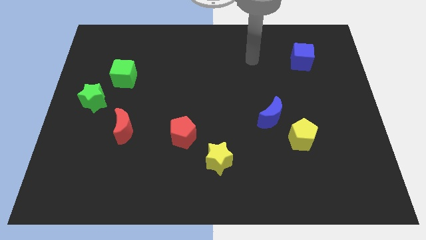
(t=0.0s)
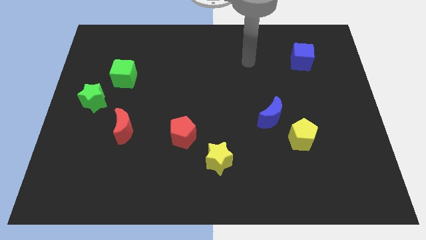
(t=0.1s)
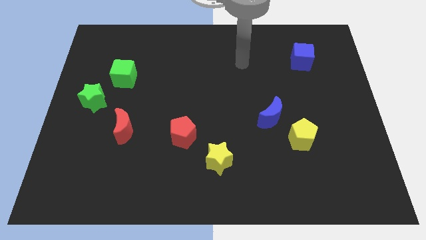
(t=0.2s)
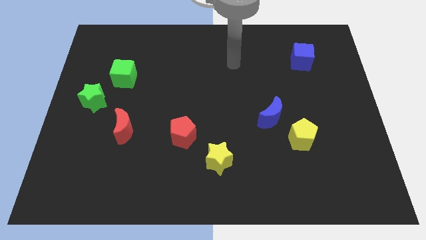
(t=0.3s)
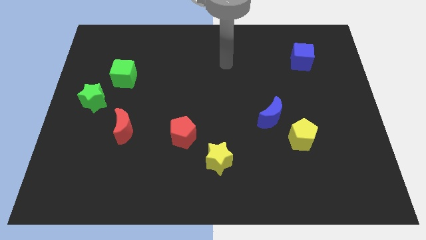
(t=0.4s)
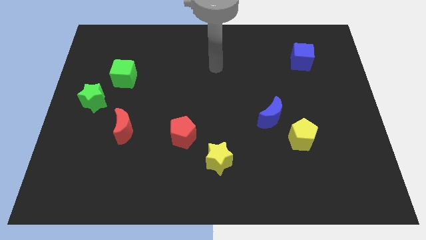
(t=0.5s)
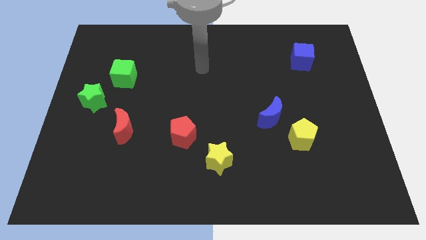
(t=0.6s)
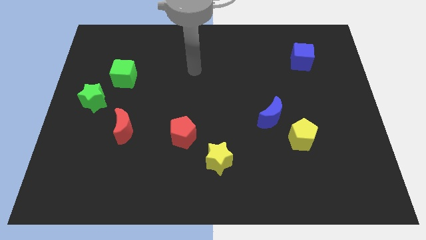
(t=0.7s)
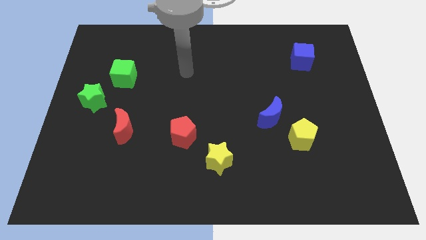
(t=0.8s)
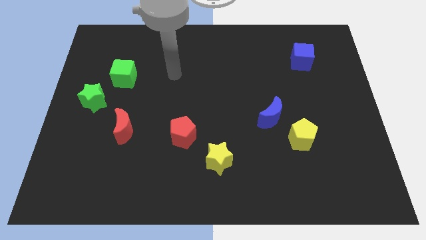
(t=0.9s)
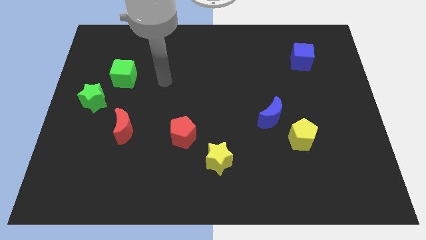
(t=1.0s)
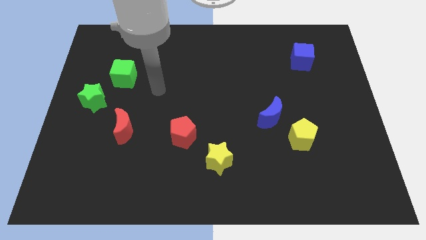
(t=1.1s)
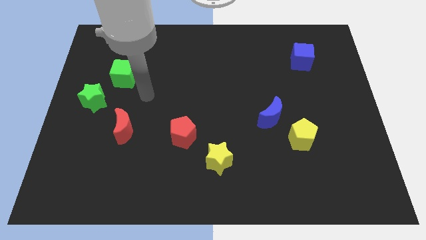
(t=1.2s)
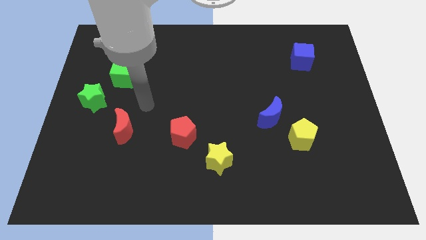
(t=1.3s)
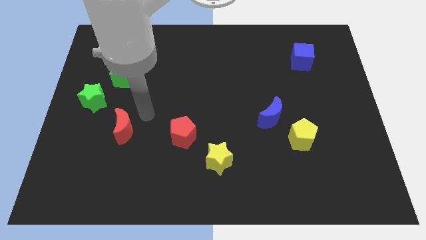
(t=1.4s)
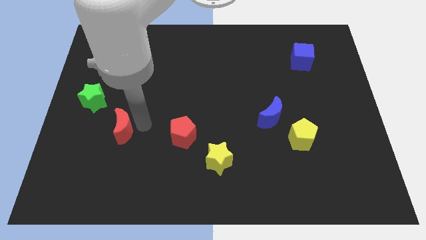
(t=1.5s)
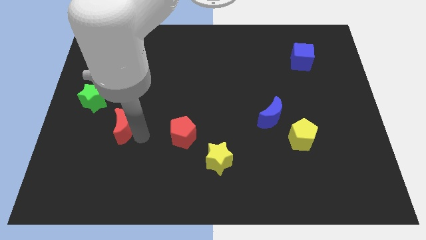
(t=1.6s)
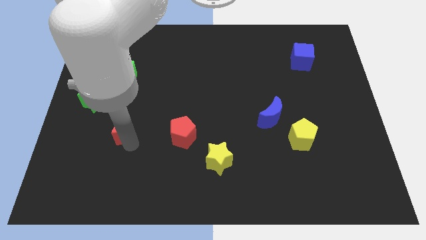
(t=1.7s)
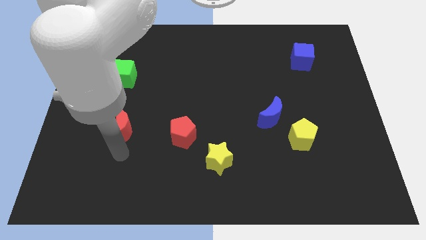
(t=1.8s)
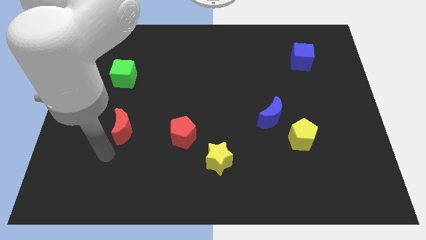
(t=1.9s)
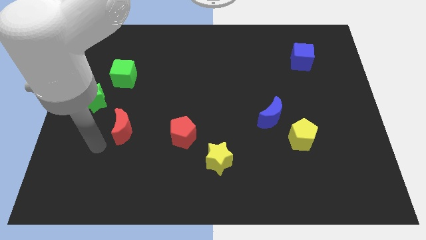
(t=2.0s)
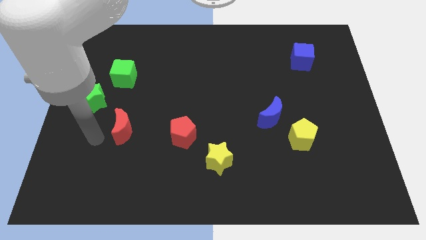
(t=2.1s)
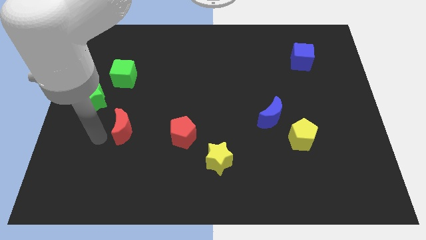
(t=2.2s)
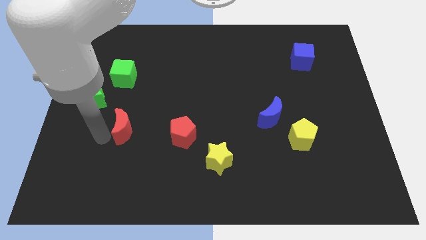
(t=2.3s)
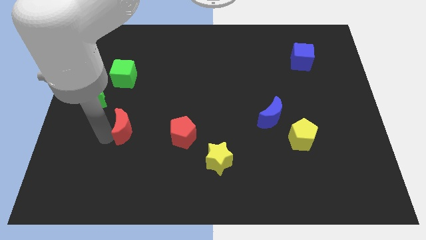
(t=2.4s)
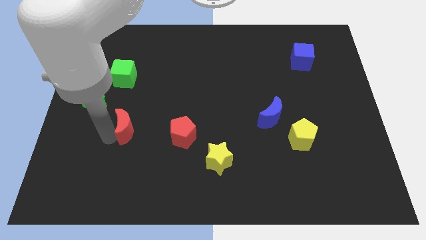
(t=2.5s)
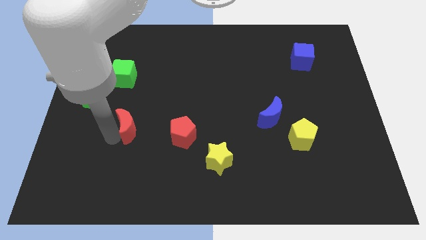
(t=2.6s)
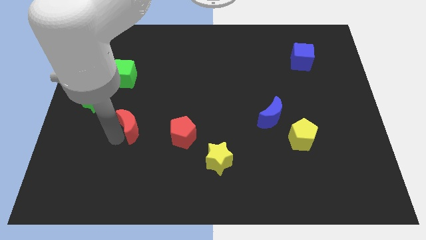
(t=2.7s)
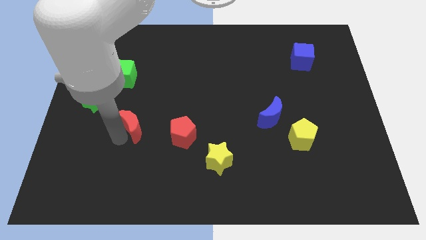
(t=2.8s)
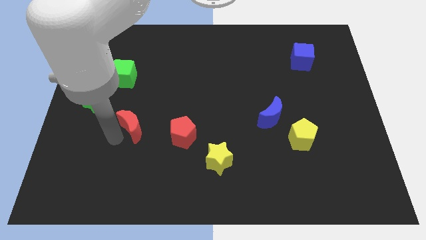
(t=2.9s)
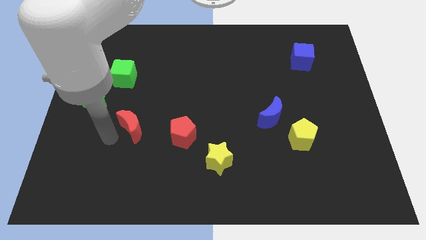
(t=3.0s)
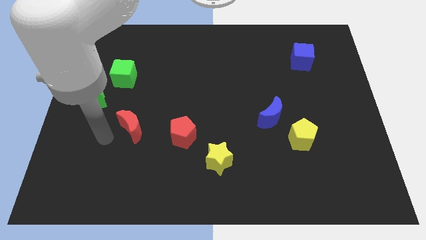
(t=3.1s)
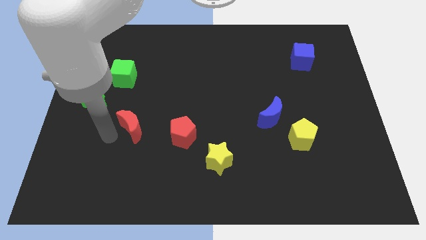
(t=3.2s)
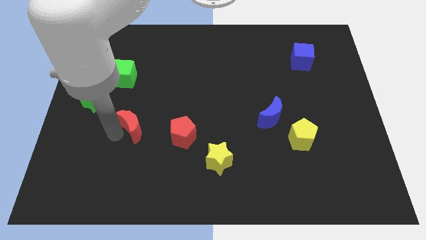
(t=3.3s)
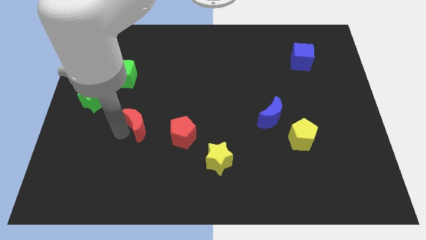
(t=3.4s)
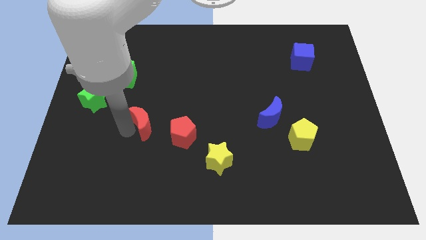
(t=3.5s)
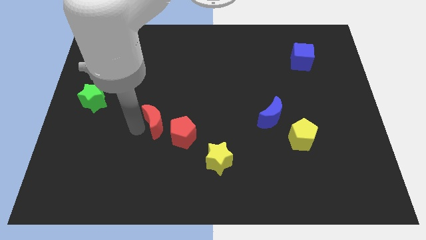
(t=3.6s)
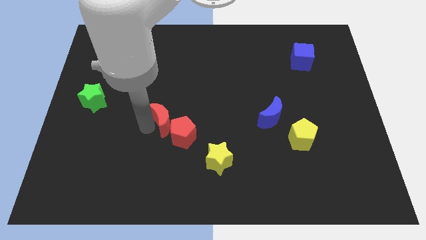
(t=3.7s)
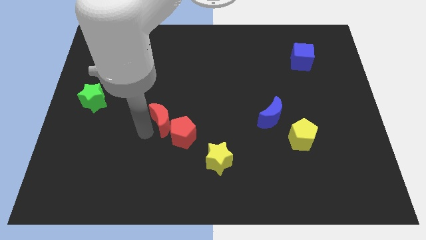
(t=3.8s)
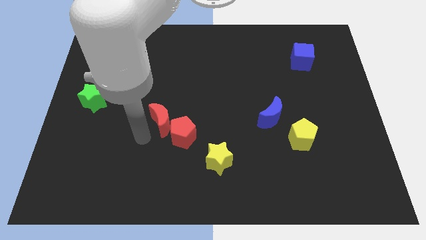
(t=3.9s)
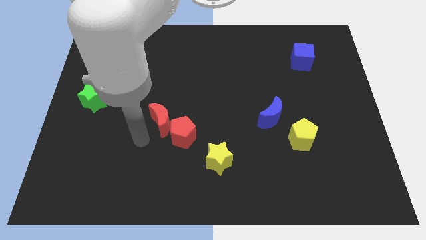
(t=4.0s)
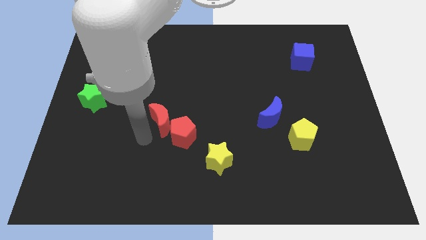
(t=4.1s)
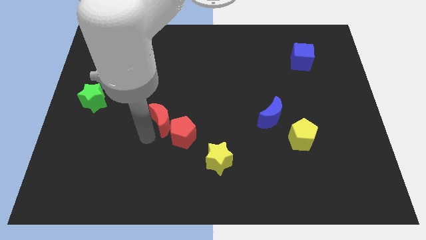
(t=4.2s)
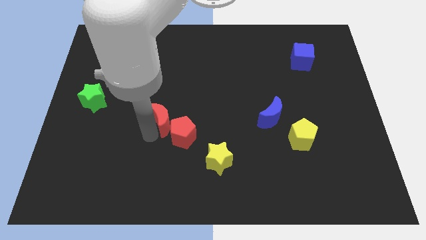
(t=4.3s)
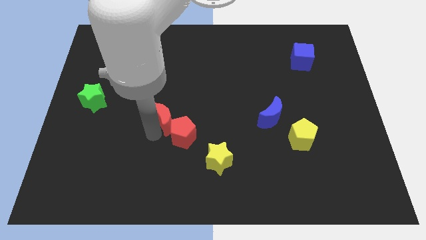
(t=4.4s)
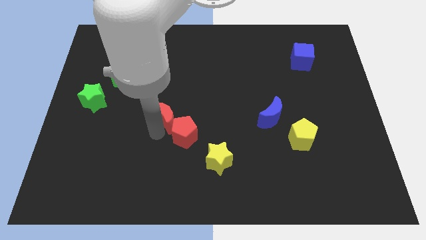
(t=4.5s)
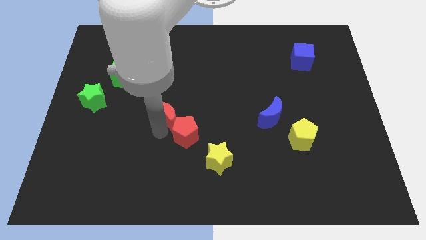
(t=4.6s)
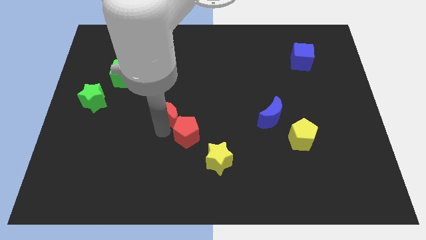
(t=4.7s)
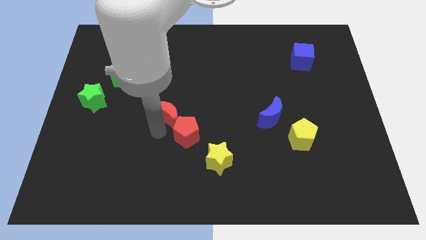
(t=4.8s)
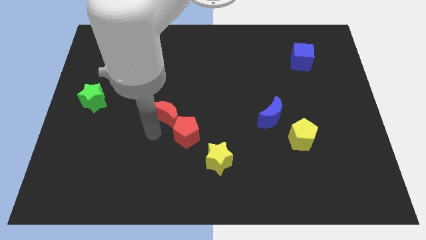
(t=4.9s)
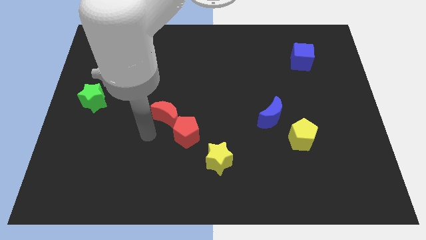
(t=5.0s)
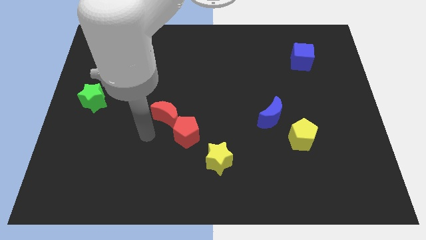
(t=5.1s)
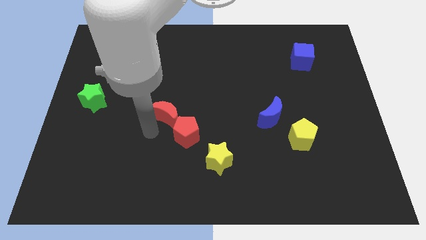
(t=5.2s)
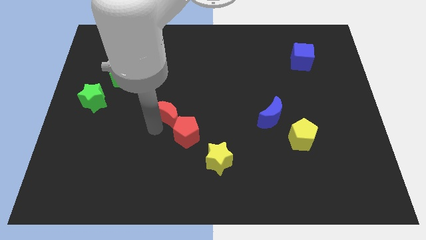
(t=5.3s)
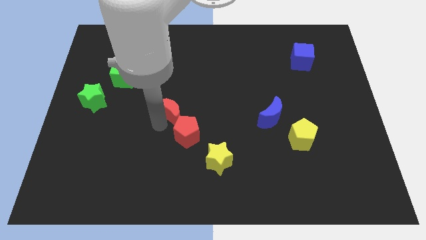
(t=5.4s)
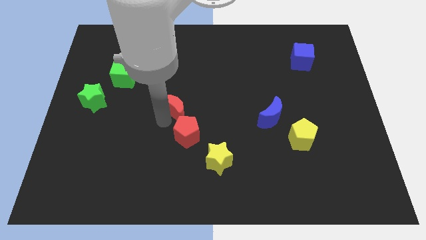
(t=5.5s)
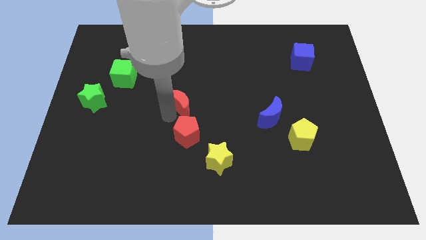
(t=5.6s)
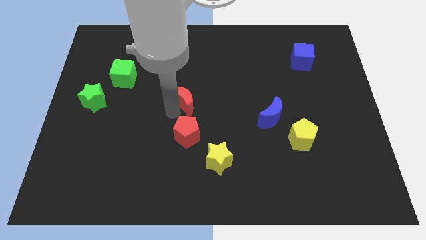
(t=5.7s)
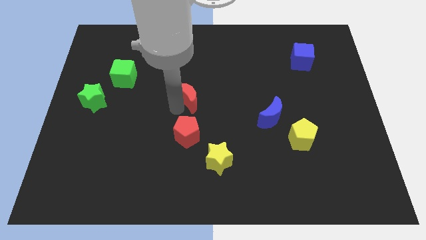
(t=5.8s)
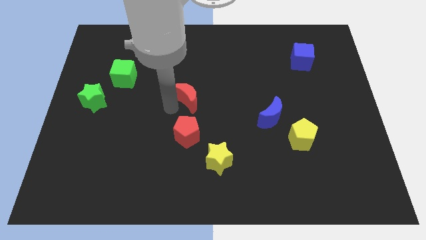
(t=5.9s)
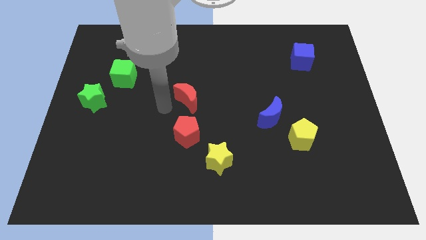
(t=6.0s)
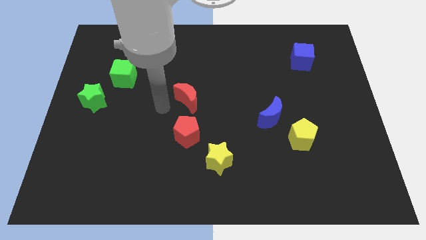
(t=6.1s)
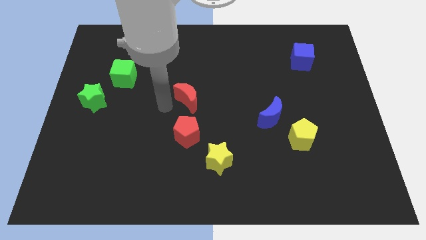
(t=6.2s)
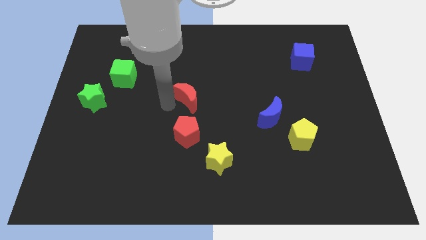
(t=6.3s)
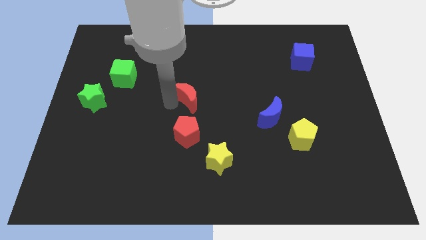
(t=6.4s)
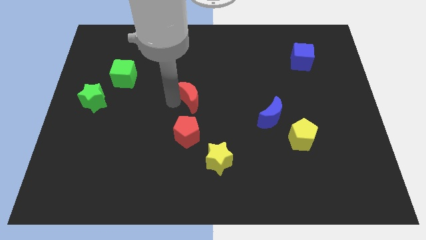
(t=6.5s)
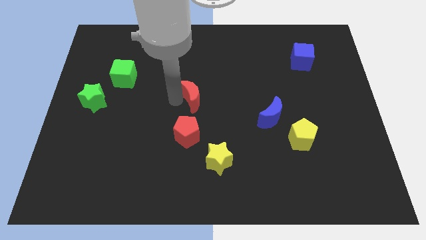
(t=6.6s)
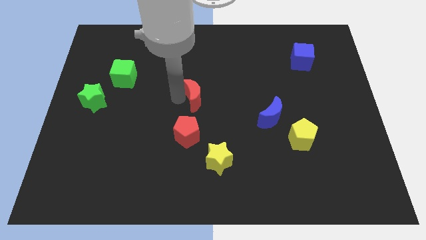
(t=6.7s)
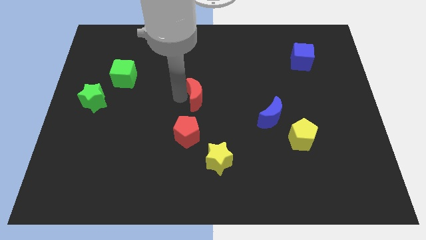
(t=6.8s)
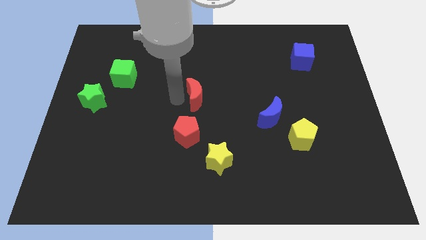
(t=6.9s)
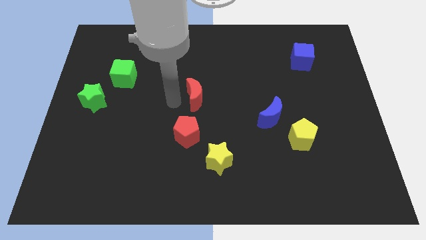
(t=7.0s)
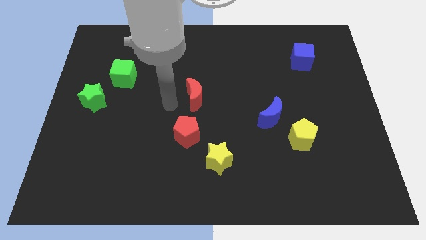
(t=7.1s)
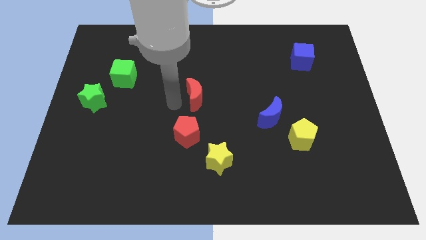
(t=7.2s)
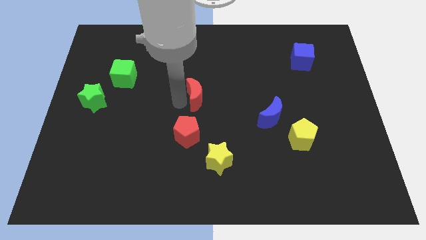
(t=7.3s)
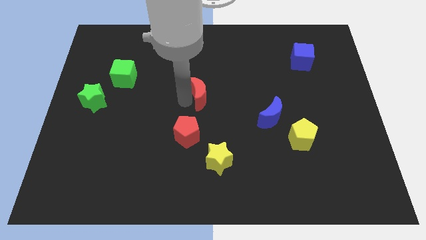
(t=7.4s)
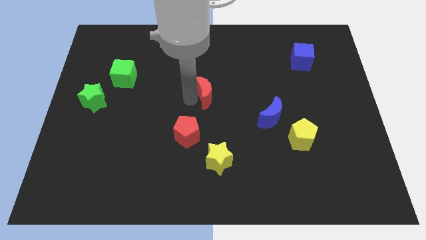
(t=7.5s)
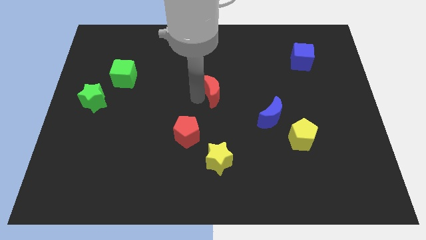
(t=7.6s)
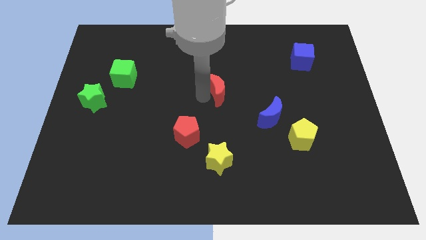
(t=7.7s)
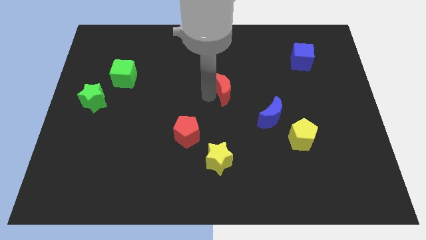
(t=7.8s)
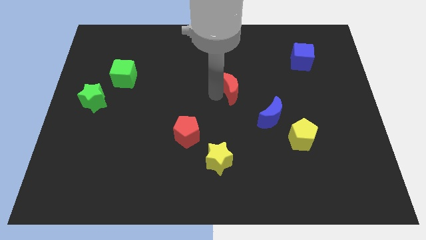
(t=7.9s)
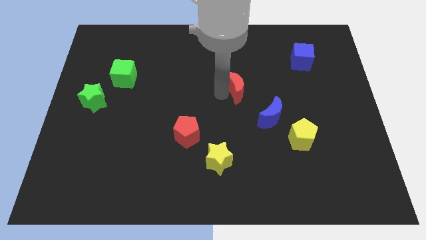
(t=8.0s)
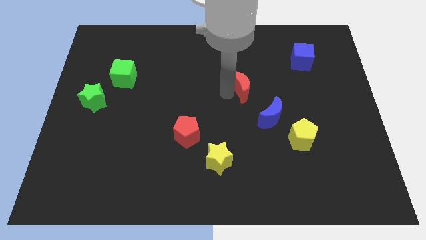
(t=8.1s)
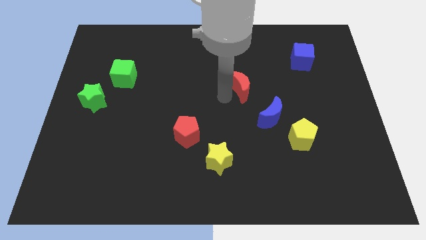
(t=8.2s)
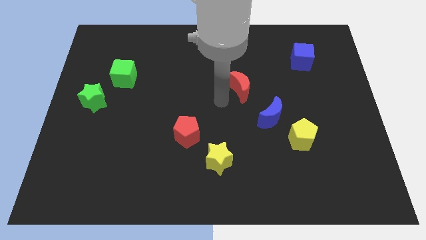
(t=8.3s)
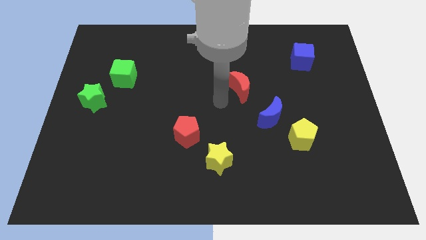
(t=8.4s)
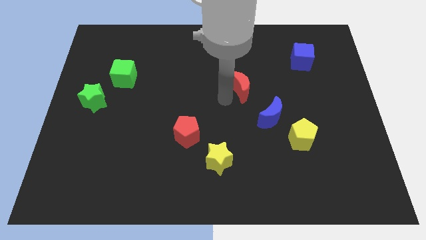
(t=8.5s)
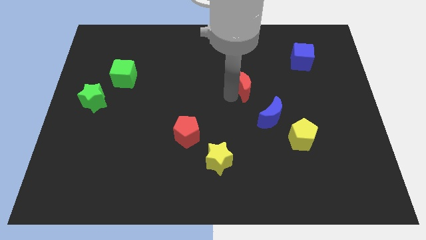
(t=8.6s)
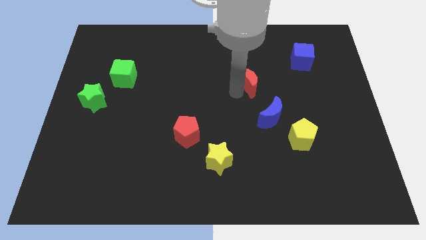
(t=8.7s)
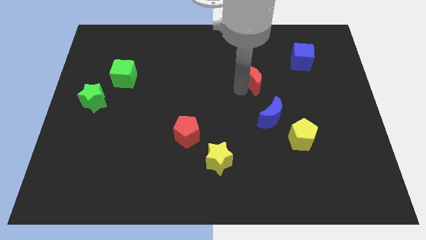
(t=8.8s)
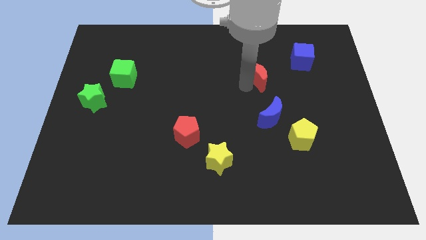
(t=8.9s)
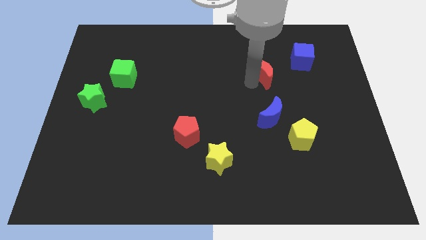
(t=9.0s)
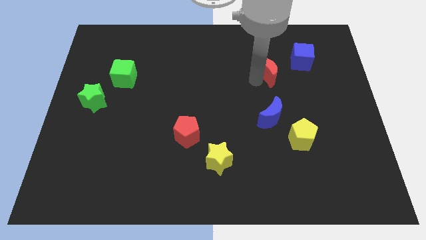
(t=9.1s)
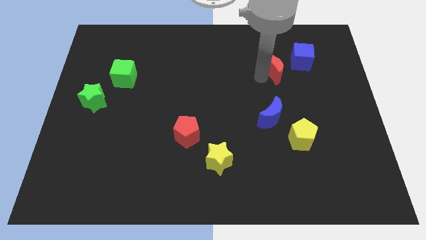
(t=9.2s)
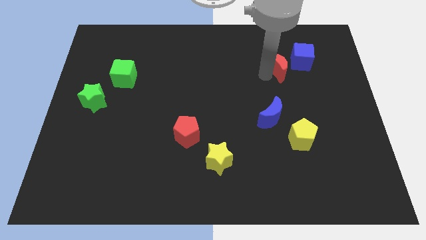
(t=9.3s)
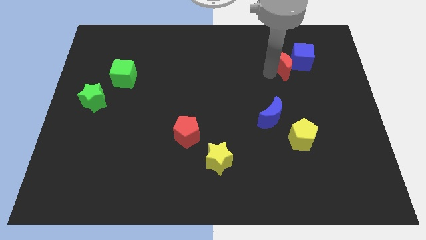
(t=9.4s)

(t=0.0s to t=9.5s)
move the red moon towards the blue cube
